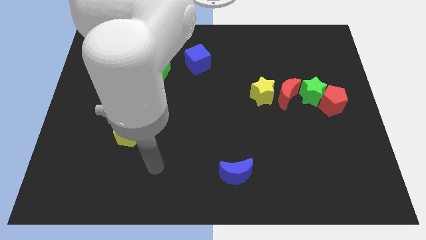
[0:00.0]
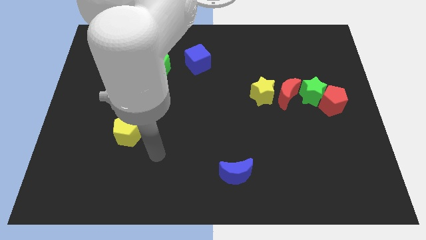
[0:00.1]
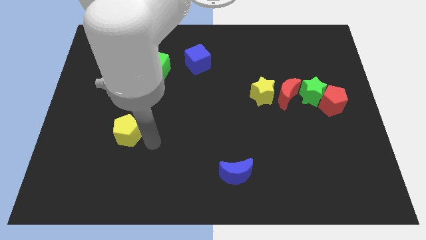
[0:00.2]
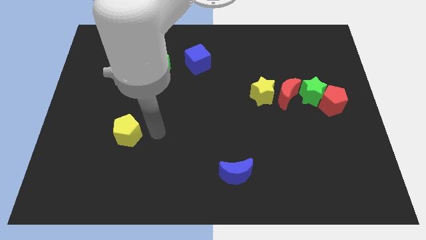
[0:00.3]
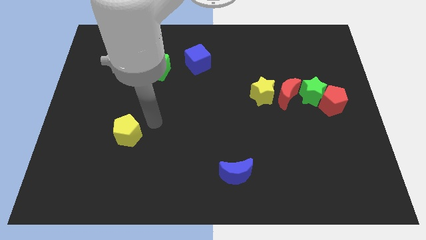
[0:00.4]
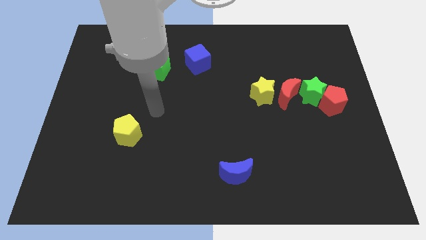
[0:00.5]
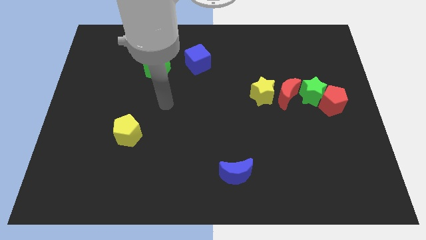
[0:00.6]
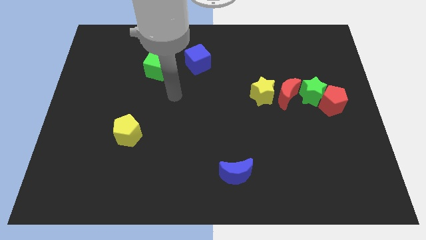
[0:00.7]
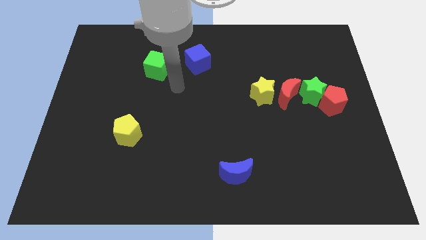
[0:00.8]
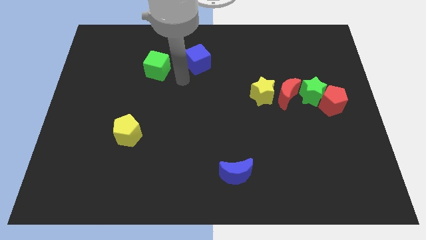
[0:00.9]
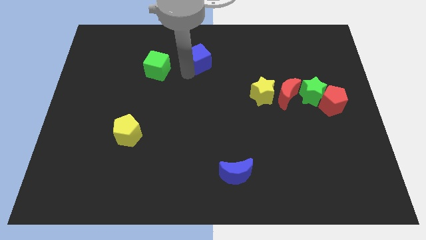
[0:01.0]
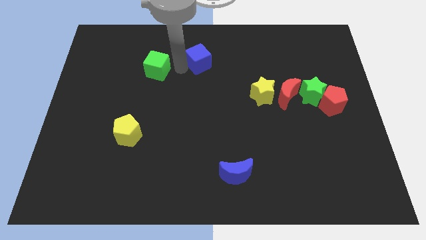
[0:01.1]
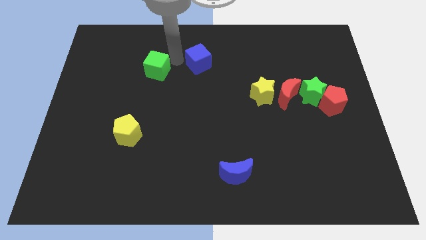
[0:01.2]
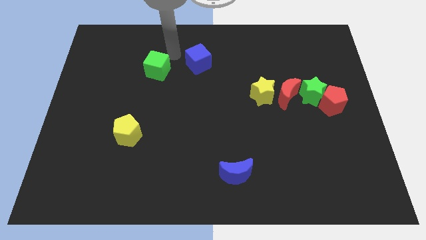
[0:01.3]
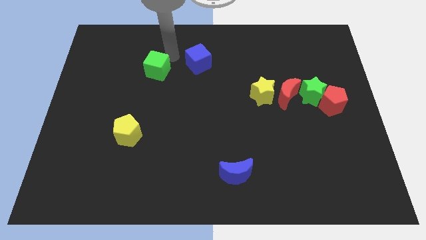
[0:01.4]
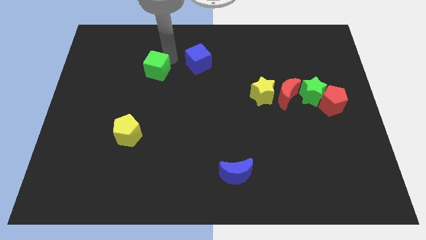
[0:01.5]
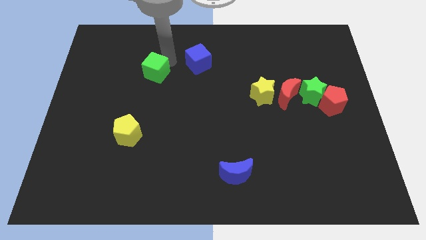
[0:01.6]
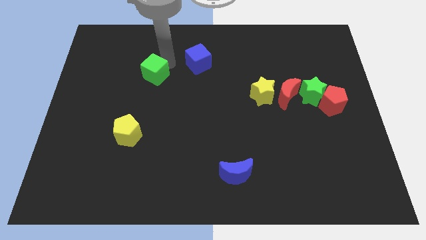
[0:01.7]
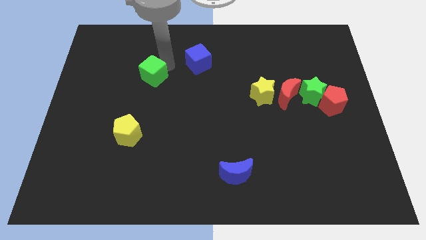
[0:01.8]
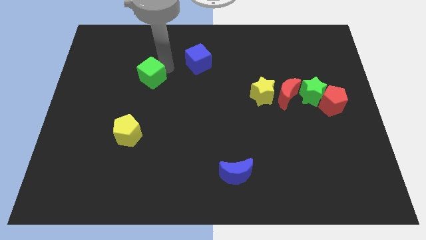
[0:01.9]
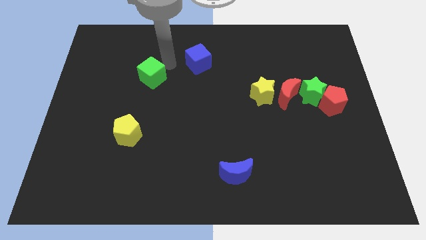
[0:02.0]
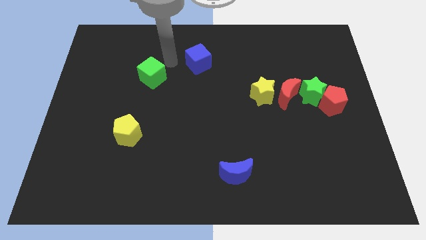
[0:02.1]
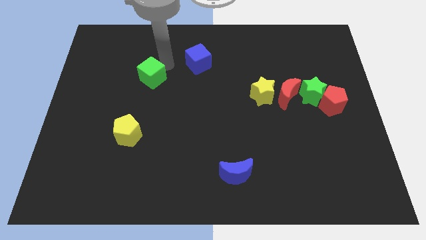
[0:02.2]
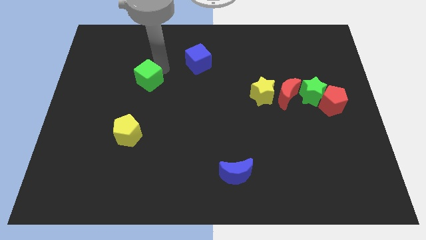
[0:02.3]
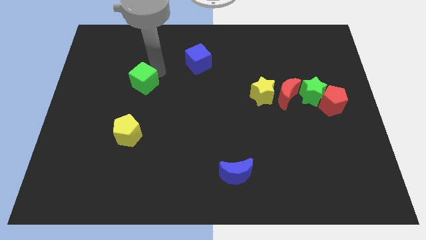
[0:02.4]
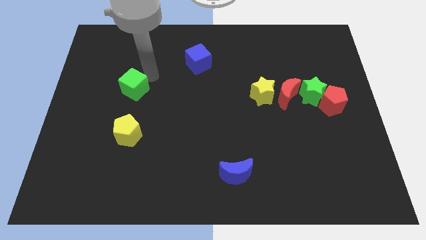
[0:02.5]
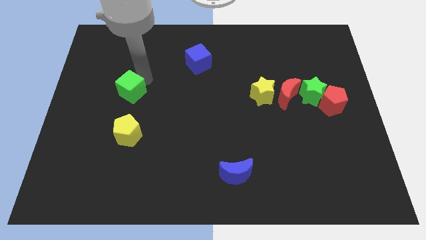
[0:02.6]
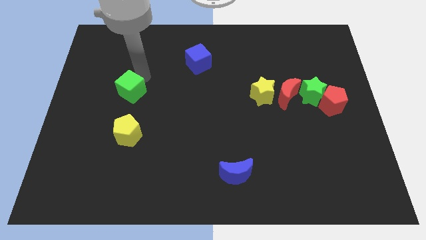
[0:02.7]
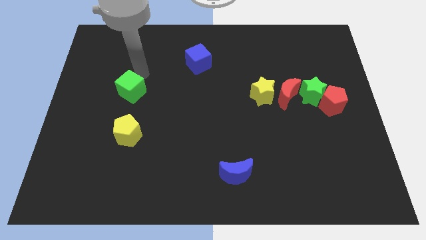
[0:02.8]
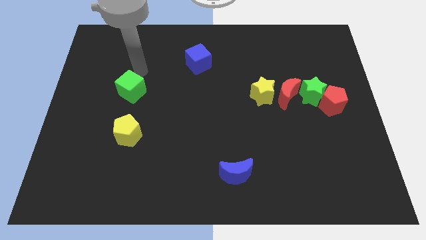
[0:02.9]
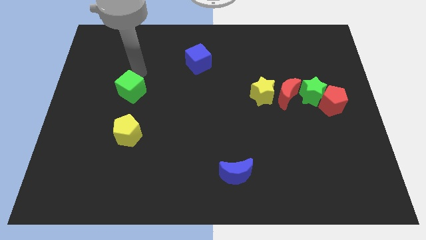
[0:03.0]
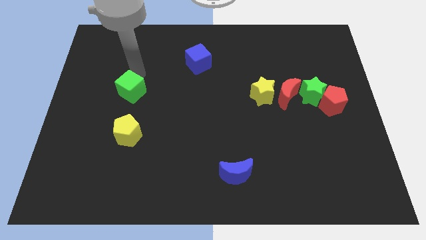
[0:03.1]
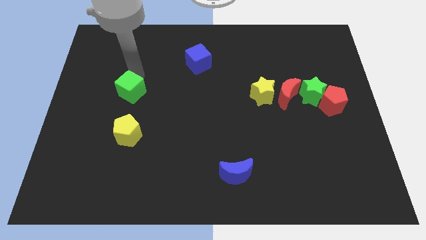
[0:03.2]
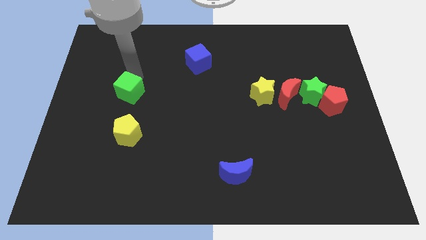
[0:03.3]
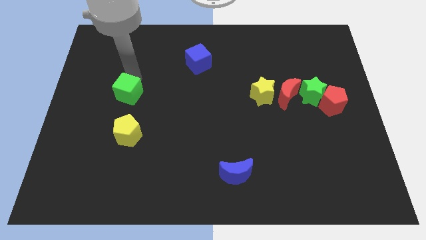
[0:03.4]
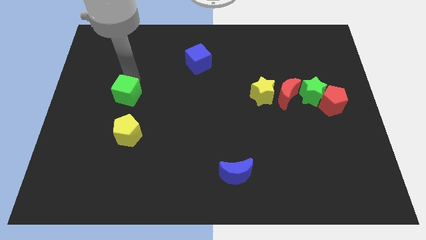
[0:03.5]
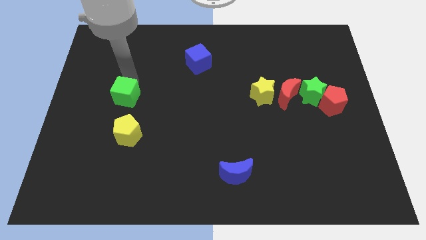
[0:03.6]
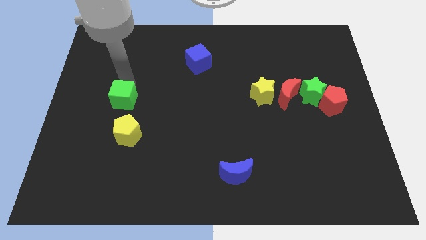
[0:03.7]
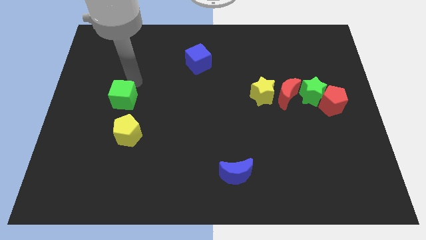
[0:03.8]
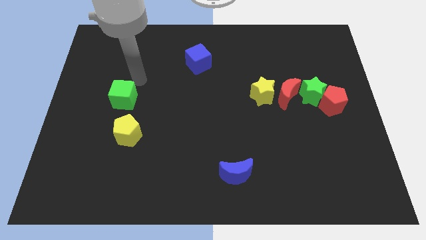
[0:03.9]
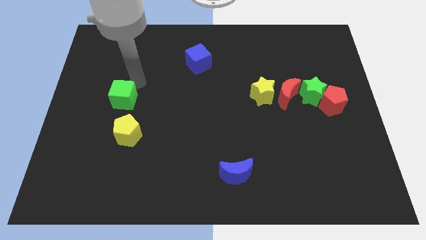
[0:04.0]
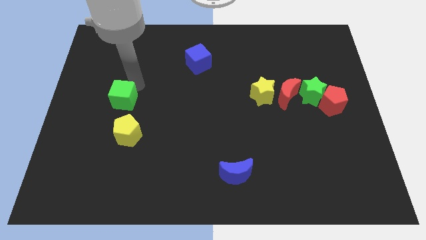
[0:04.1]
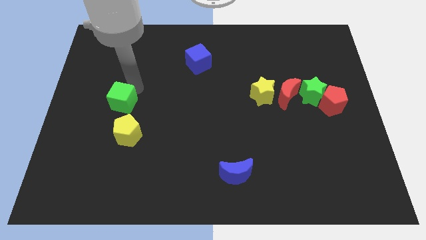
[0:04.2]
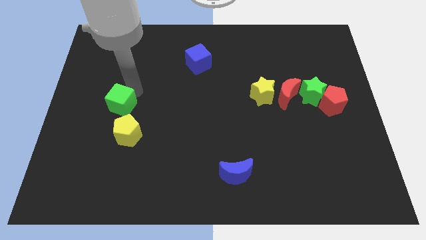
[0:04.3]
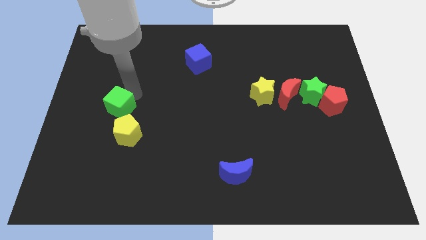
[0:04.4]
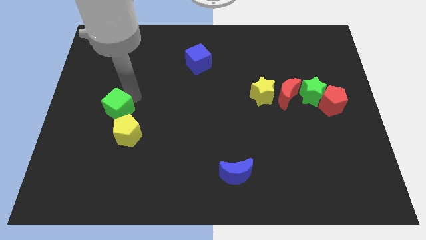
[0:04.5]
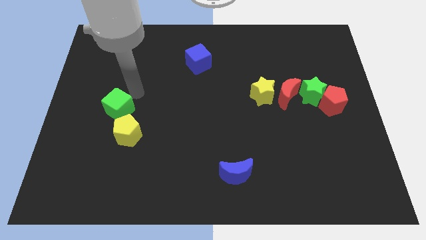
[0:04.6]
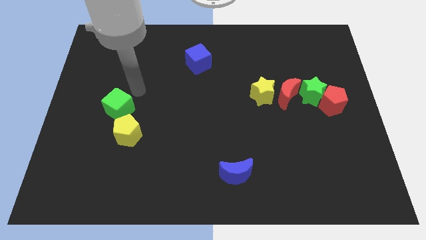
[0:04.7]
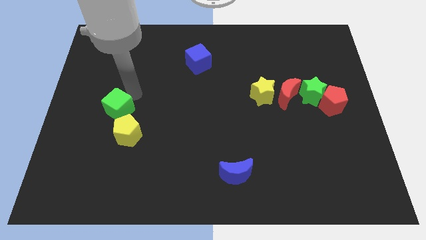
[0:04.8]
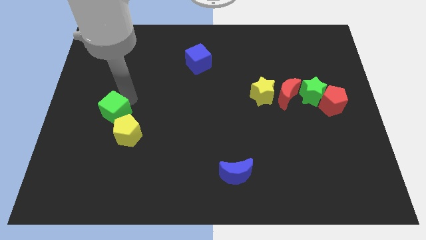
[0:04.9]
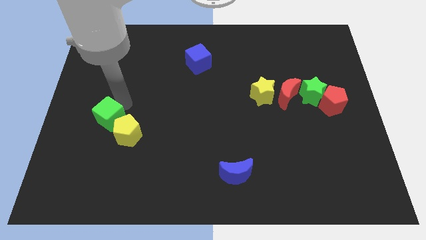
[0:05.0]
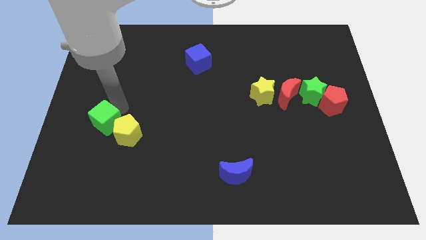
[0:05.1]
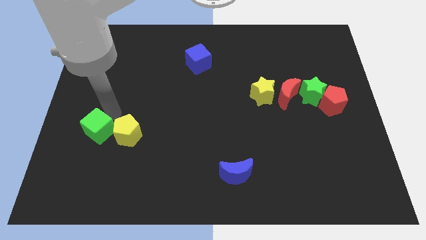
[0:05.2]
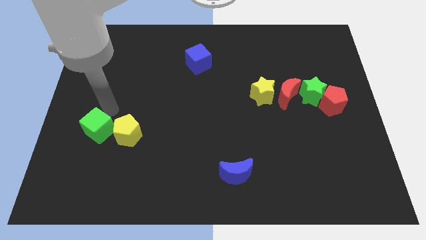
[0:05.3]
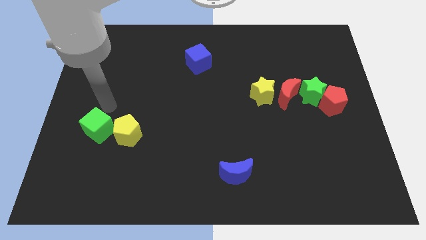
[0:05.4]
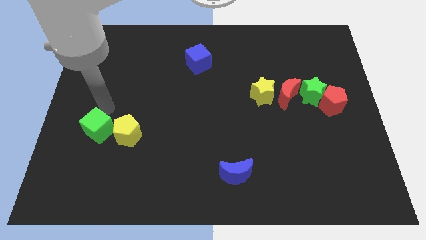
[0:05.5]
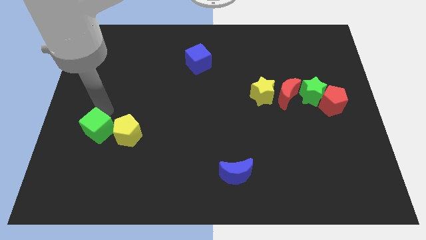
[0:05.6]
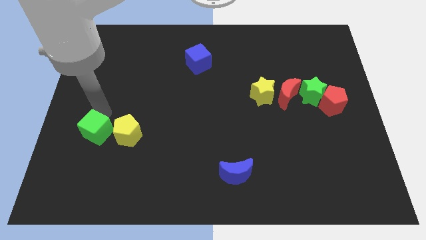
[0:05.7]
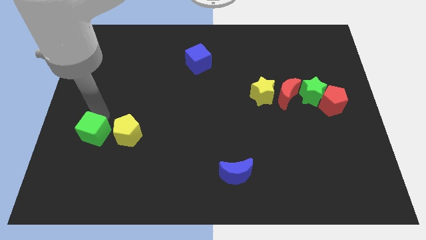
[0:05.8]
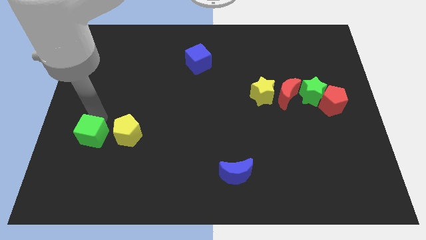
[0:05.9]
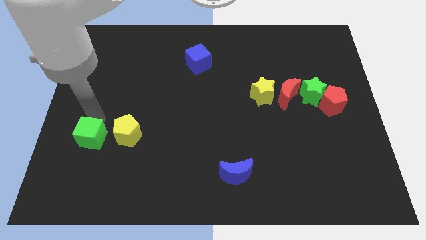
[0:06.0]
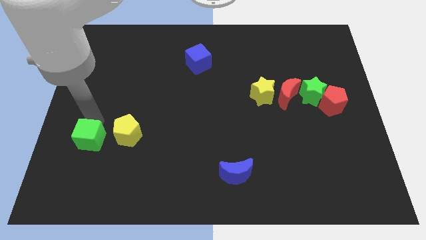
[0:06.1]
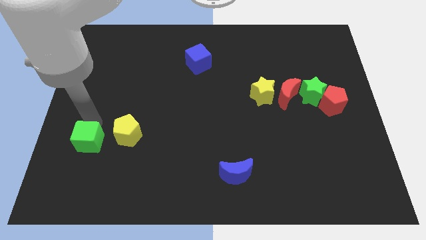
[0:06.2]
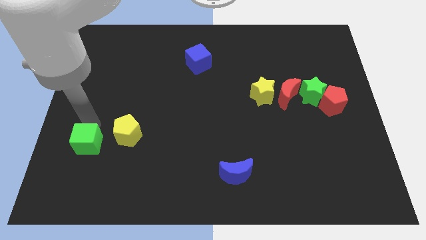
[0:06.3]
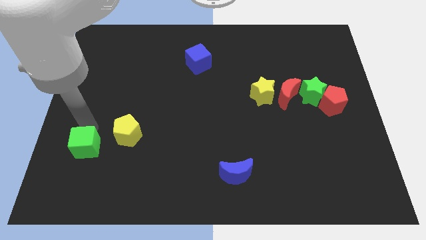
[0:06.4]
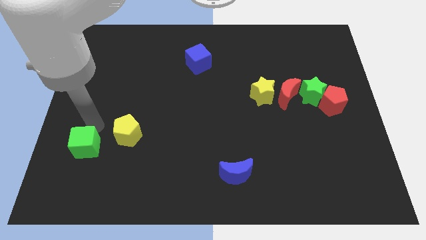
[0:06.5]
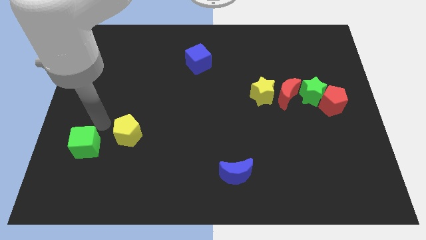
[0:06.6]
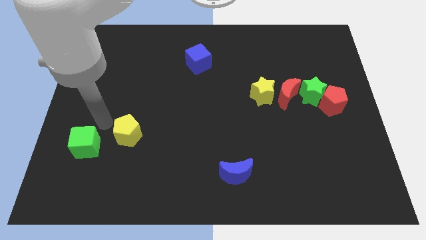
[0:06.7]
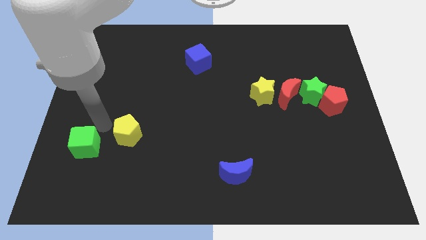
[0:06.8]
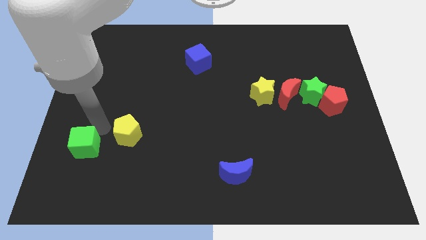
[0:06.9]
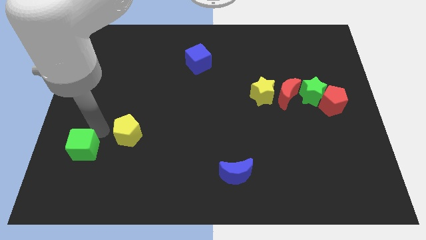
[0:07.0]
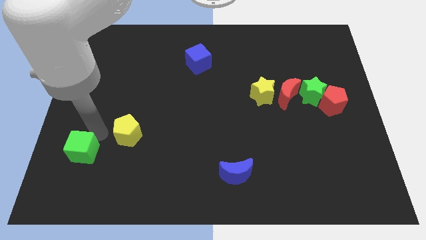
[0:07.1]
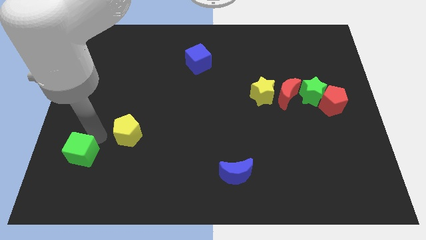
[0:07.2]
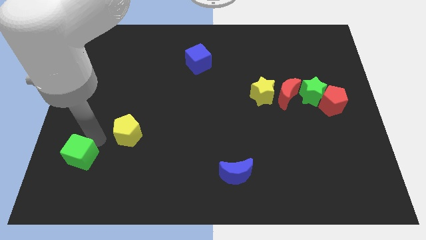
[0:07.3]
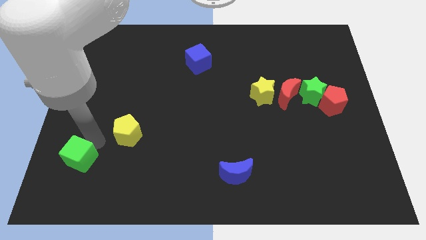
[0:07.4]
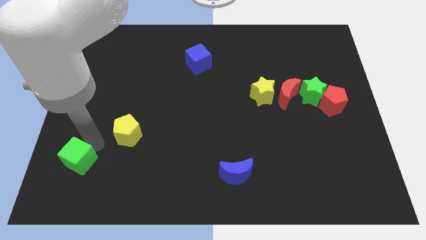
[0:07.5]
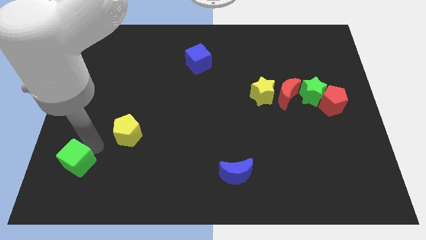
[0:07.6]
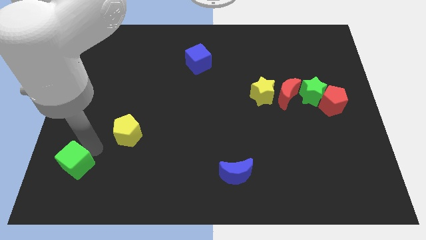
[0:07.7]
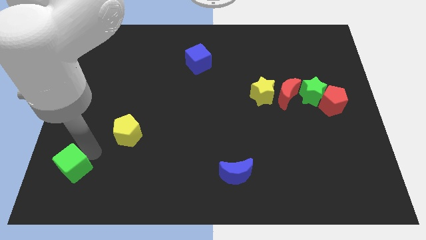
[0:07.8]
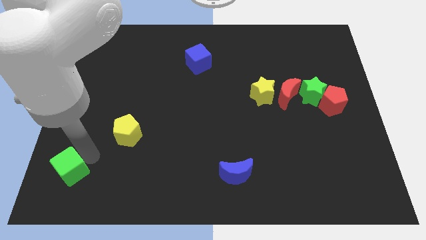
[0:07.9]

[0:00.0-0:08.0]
slide the green cube to the bottom left of the board
